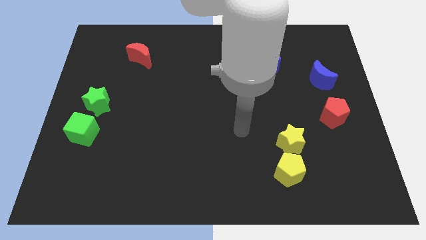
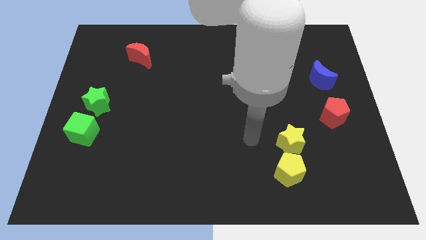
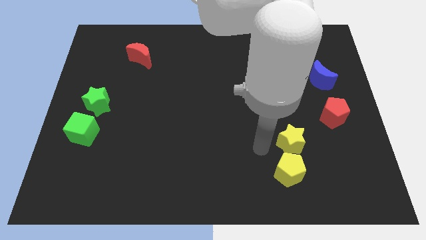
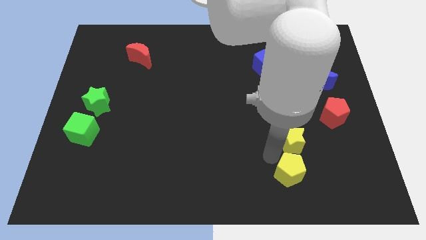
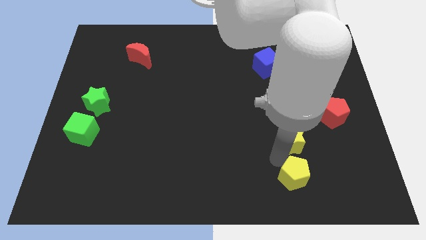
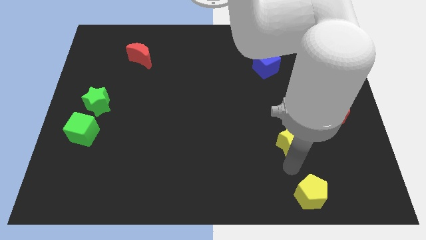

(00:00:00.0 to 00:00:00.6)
pull the yellow star apart from the yellow pentagon

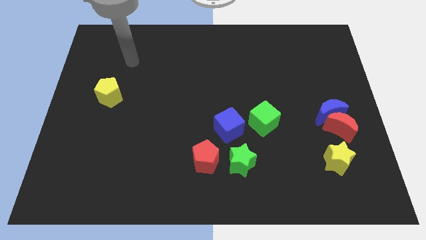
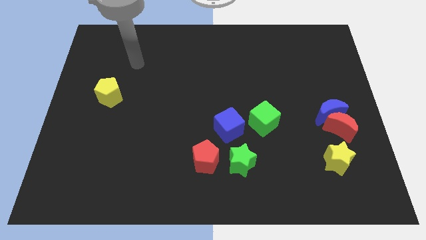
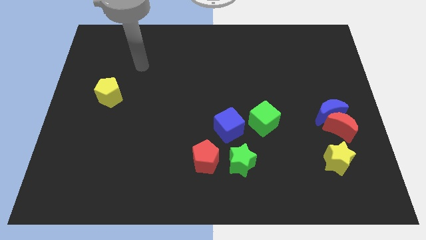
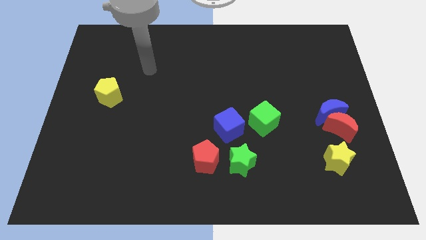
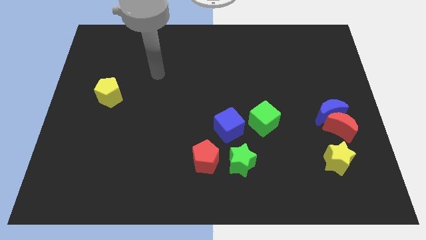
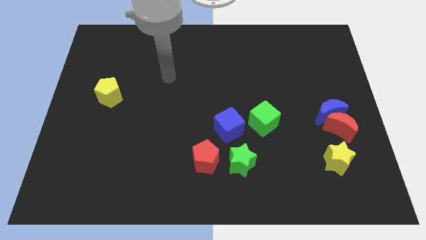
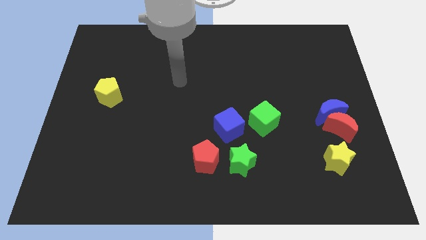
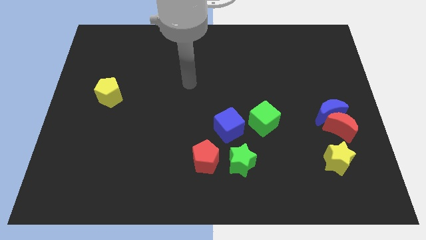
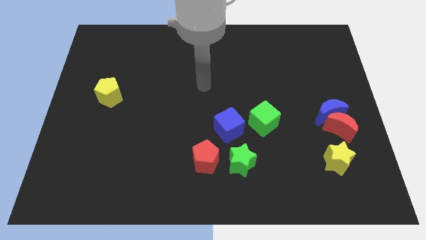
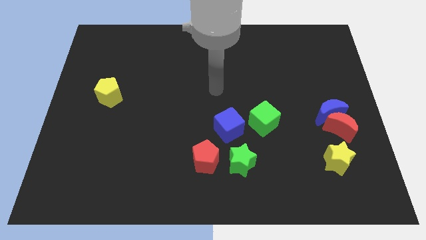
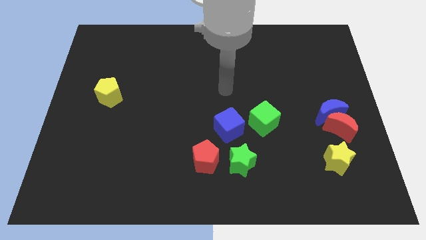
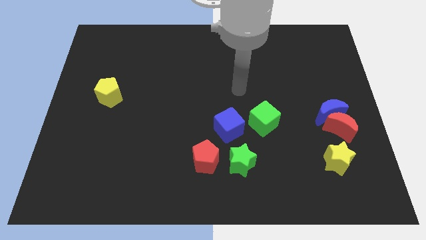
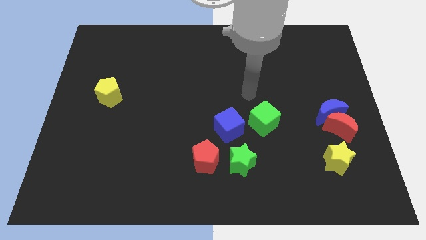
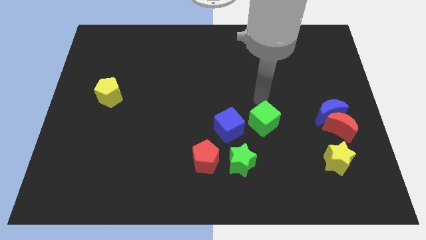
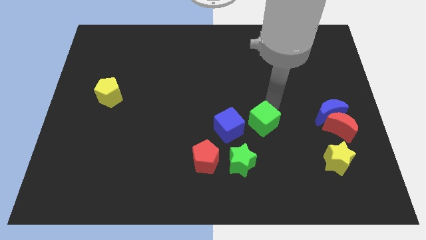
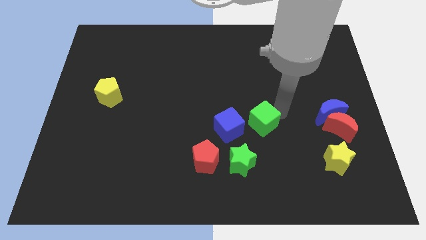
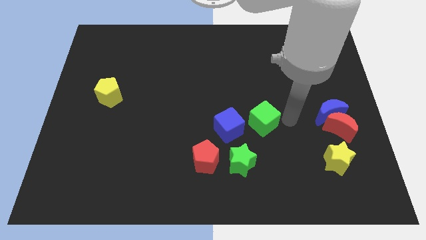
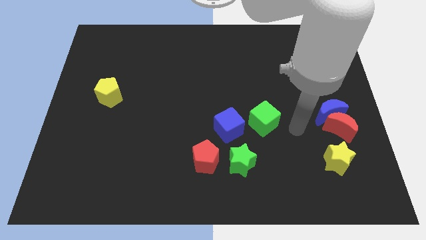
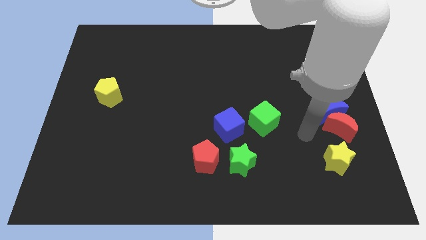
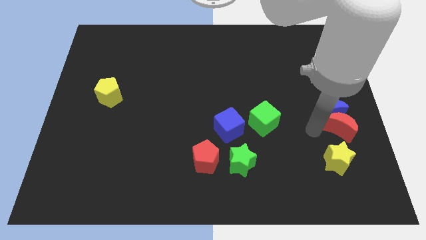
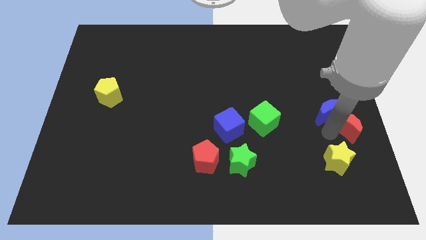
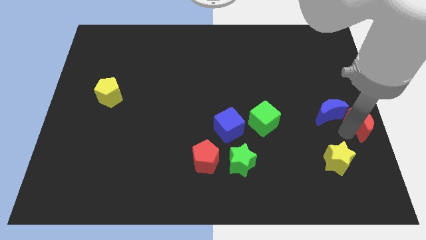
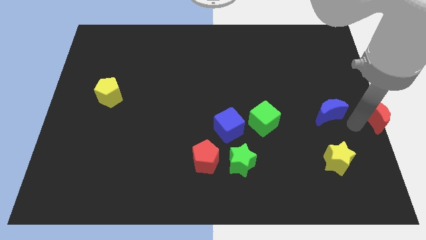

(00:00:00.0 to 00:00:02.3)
separate the blue moon from the red moon

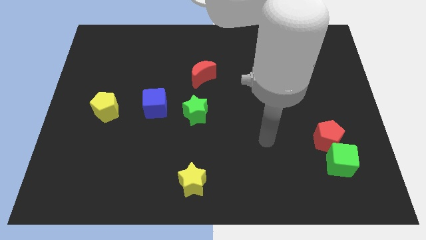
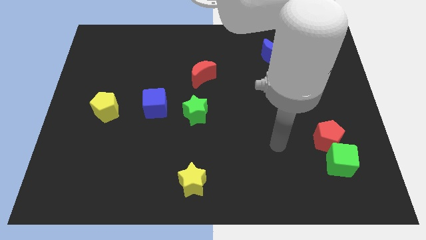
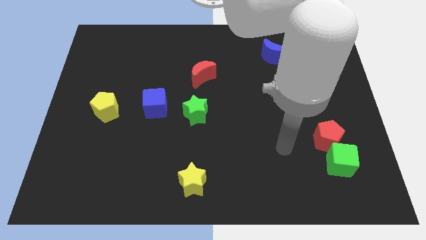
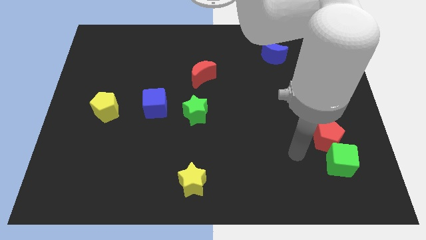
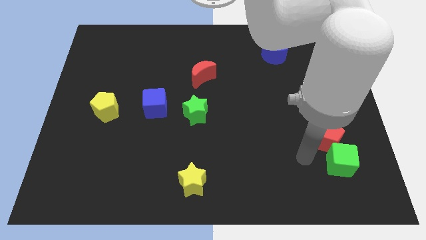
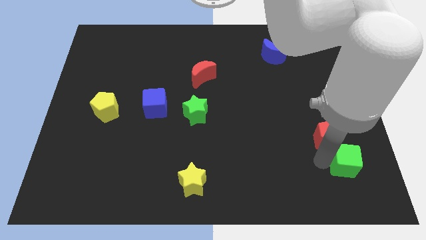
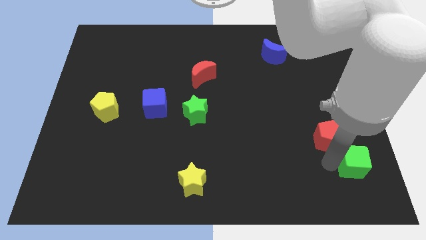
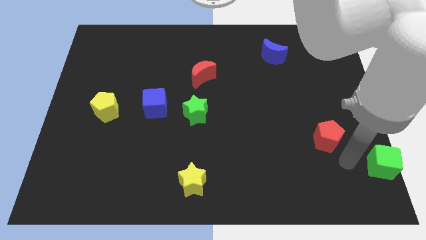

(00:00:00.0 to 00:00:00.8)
move the red pentagon away from the green cube

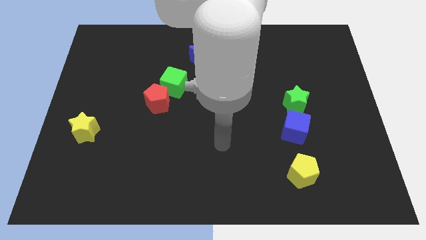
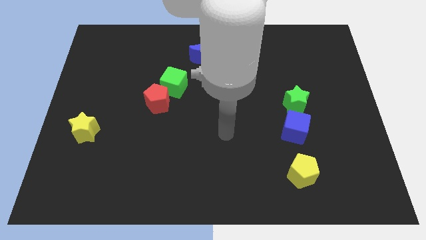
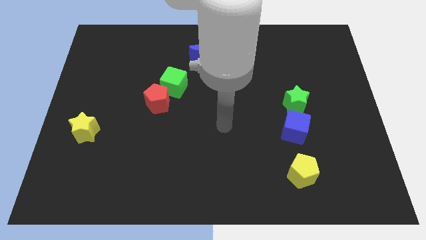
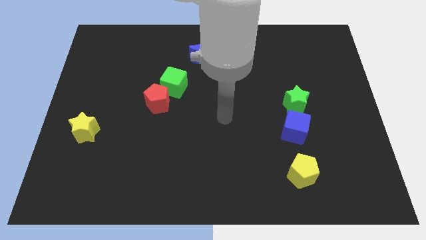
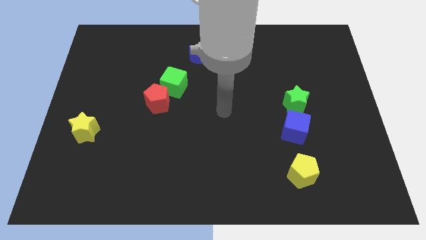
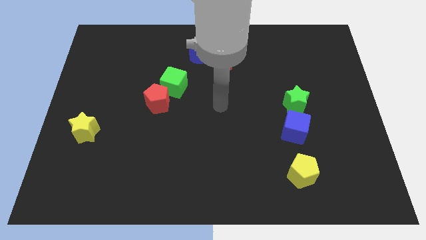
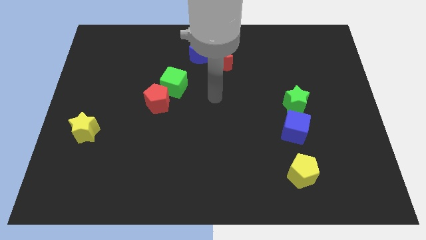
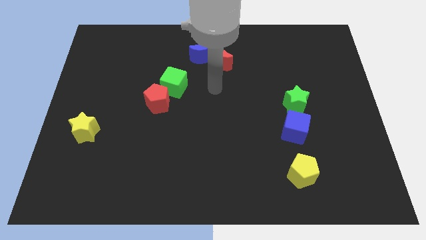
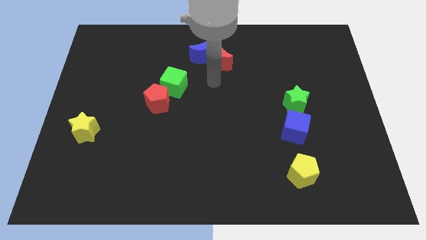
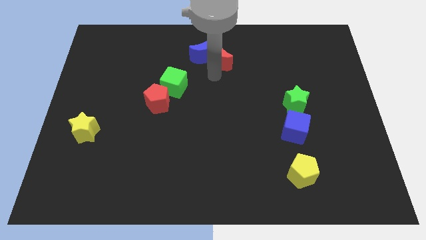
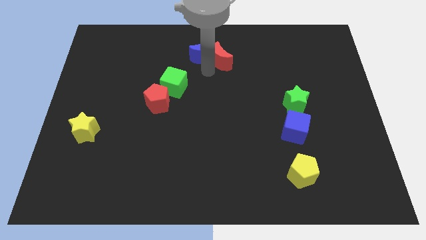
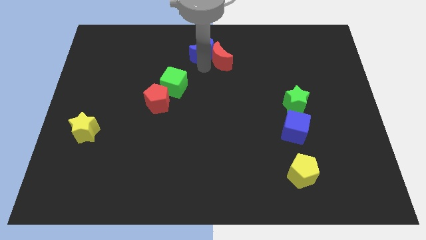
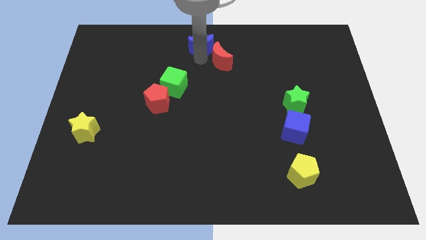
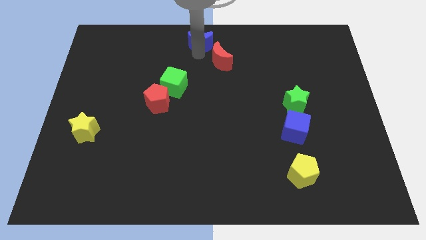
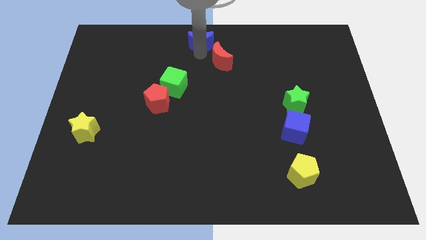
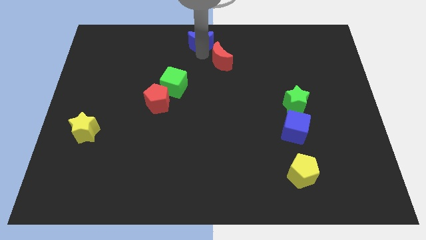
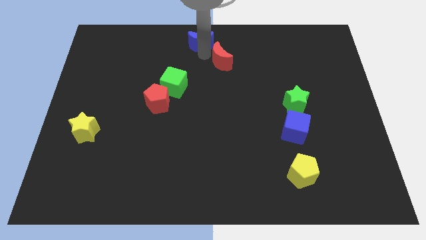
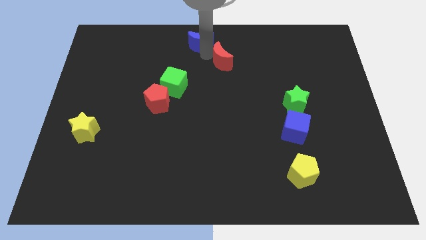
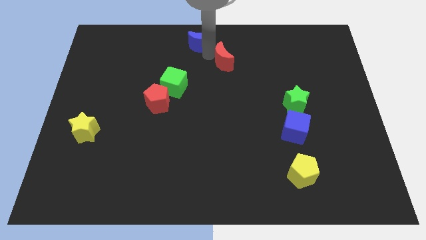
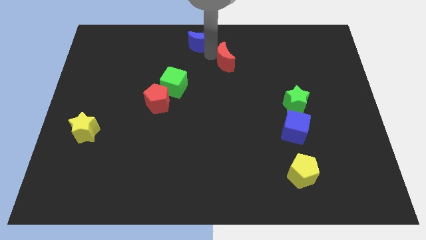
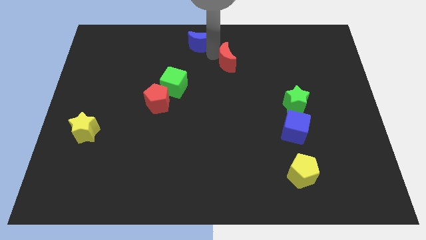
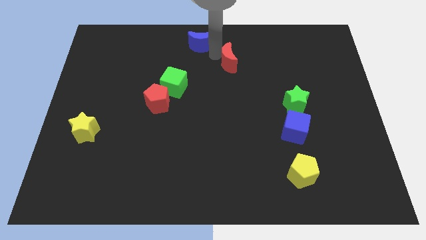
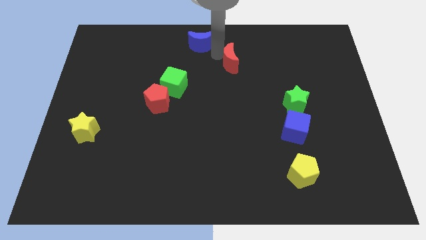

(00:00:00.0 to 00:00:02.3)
separate the red moon from the blue moon

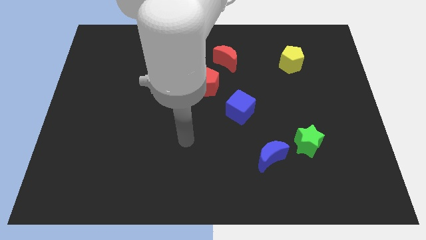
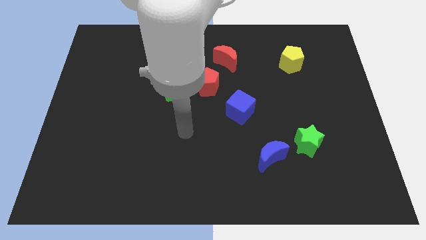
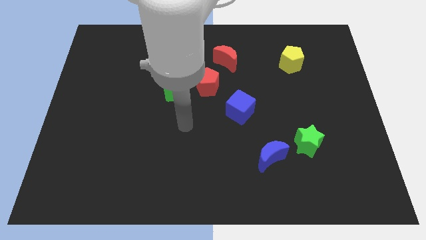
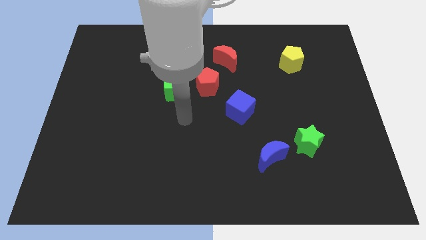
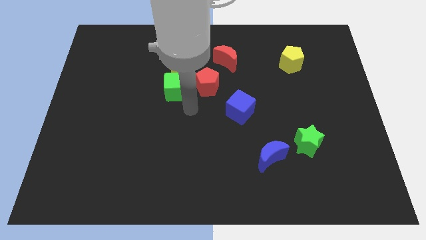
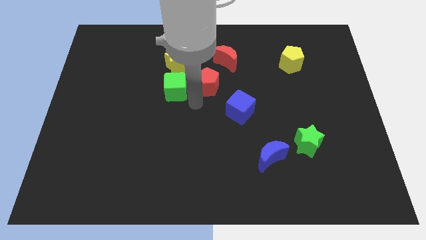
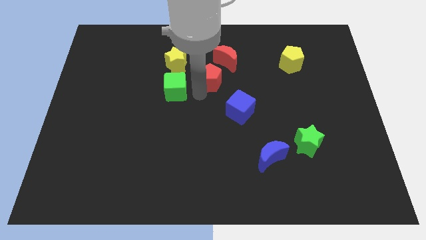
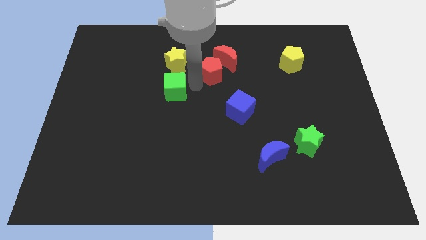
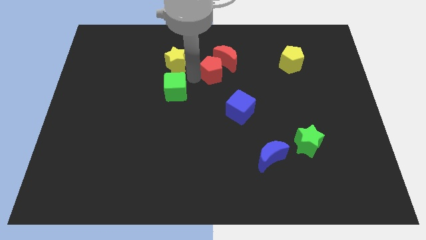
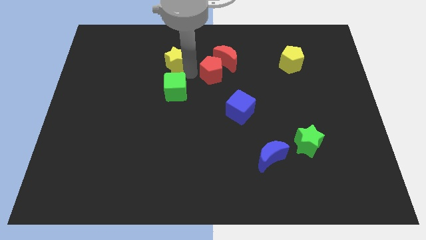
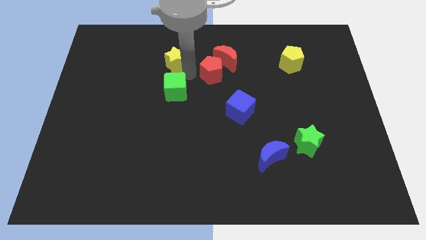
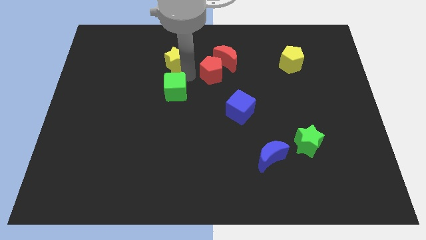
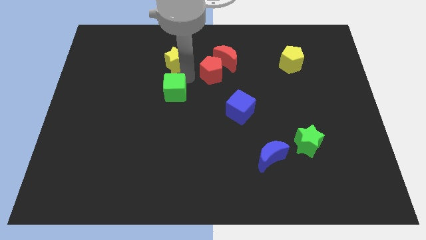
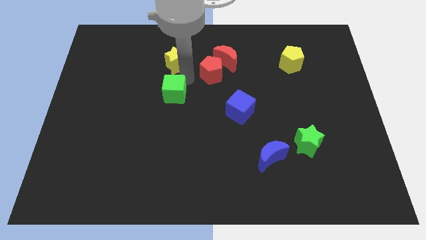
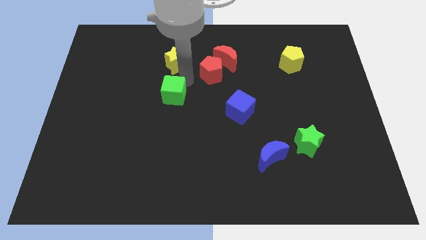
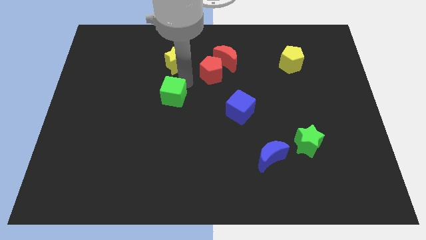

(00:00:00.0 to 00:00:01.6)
move the green cube away from the red pentagon and yellow star

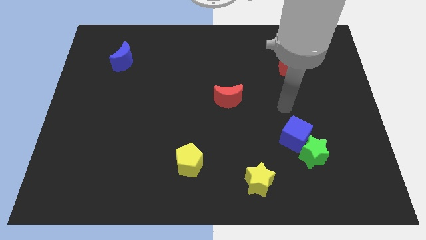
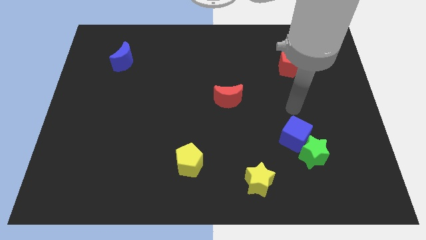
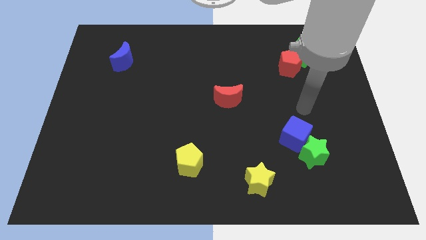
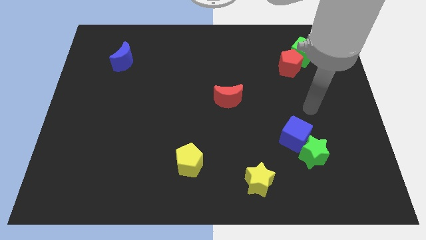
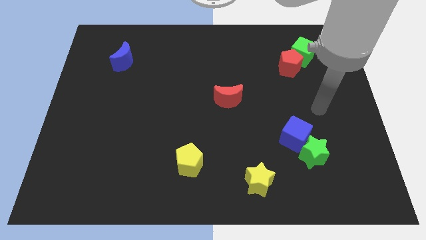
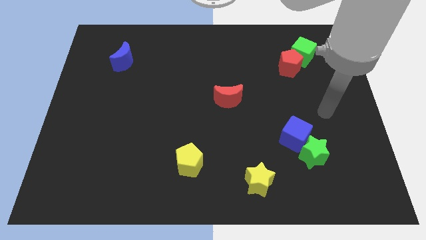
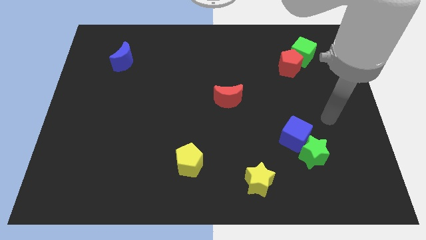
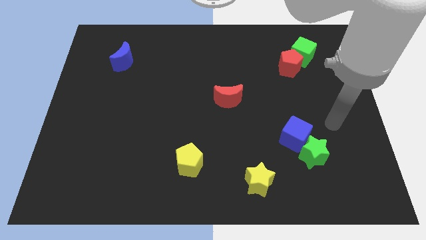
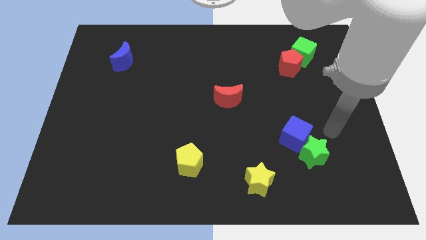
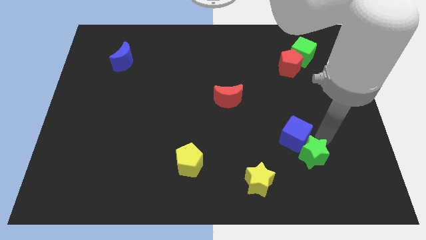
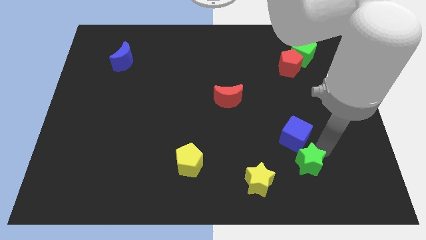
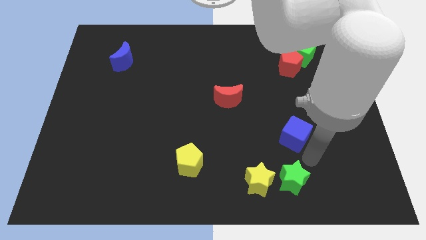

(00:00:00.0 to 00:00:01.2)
move the blue cube away from the green star

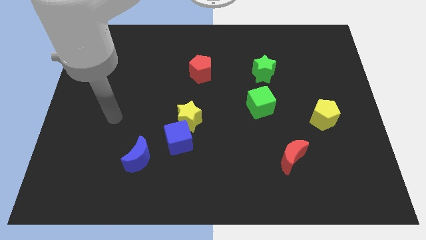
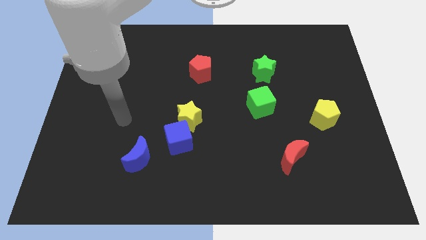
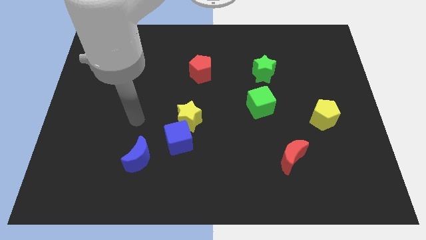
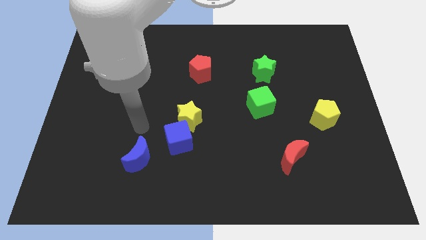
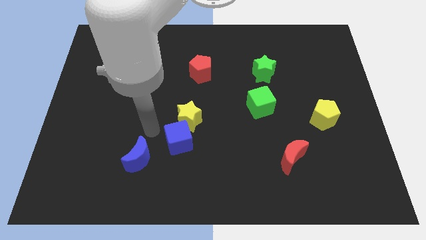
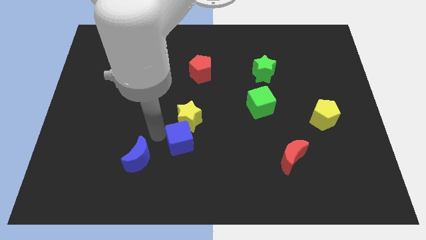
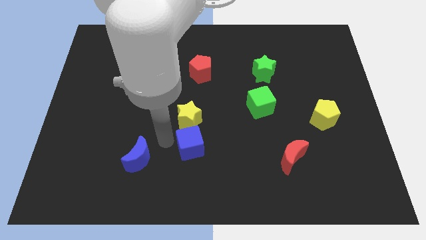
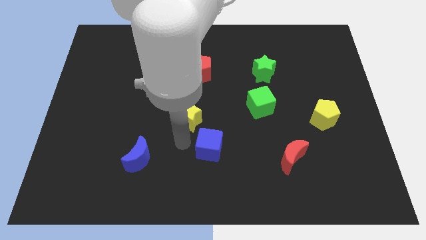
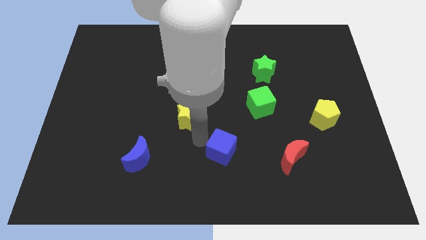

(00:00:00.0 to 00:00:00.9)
move the yellow star away from the blue cube
